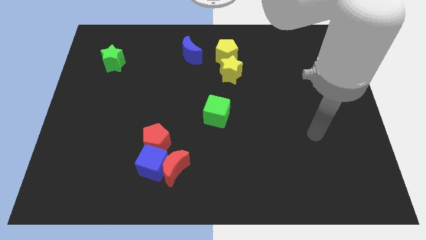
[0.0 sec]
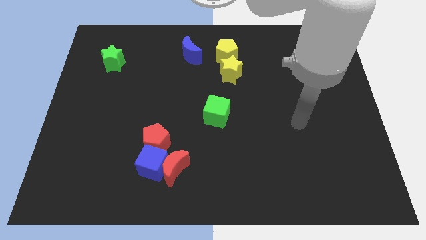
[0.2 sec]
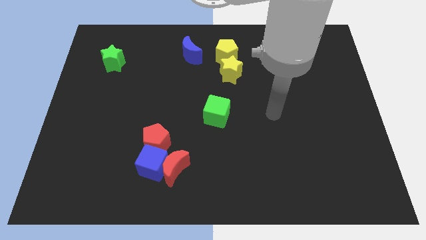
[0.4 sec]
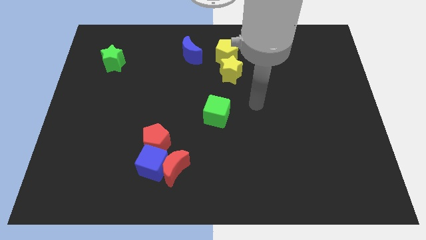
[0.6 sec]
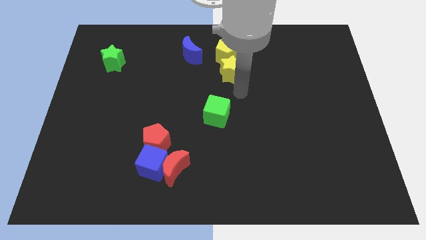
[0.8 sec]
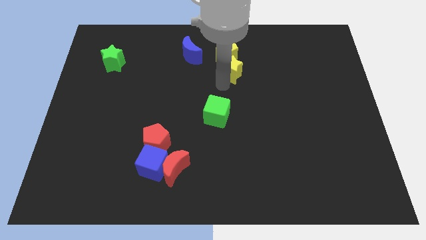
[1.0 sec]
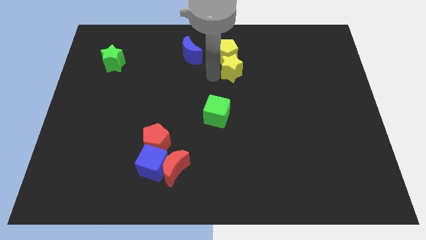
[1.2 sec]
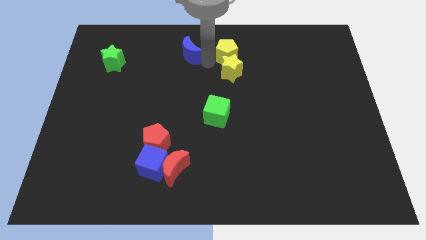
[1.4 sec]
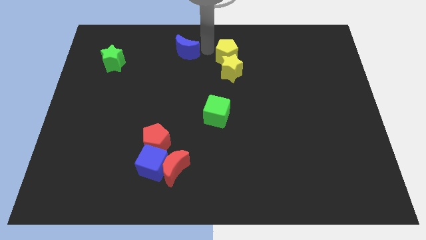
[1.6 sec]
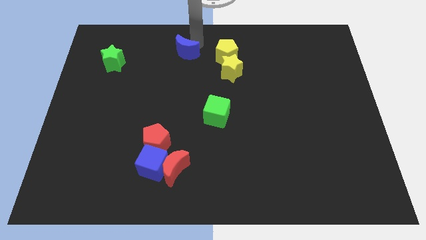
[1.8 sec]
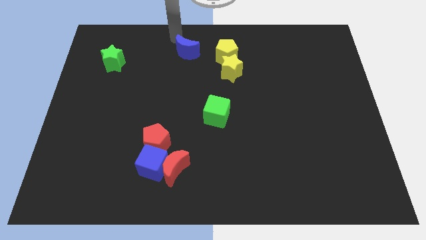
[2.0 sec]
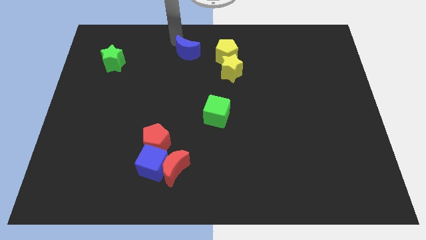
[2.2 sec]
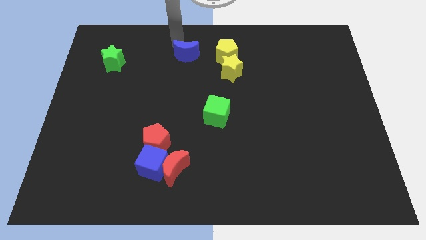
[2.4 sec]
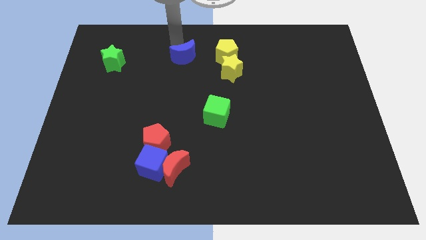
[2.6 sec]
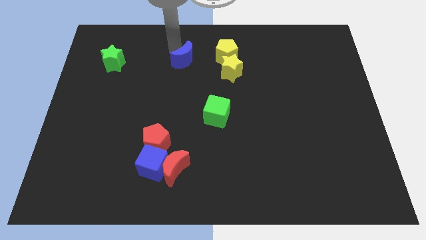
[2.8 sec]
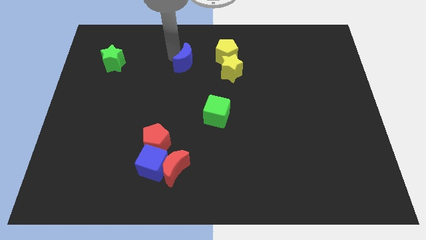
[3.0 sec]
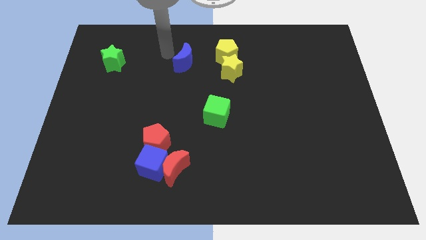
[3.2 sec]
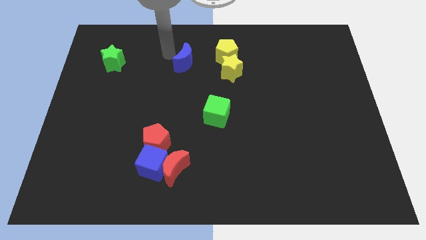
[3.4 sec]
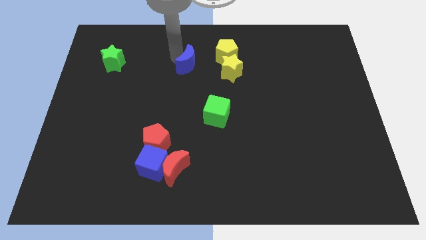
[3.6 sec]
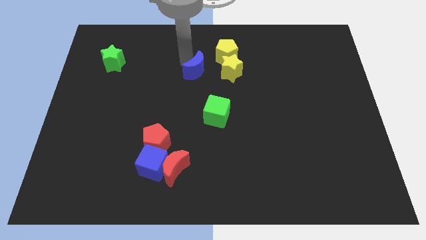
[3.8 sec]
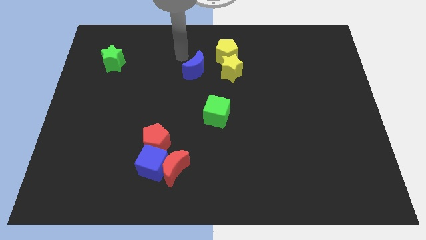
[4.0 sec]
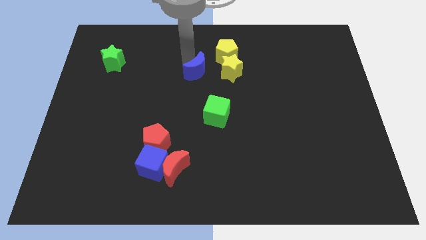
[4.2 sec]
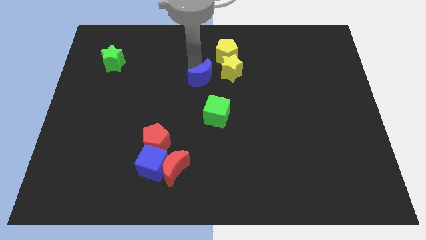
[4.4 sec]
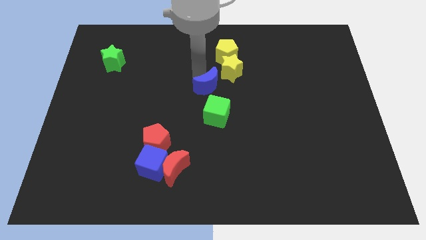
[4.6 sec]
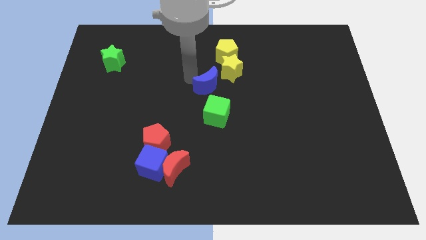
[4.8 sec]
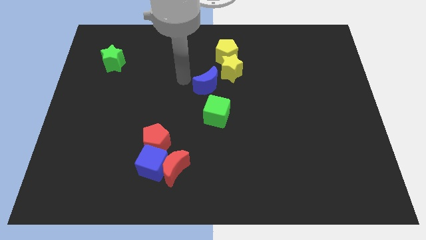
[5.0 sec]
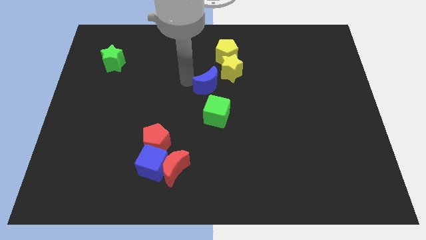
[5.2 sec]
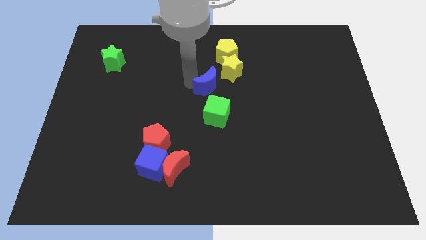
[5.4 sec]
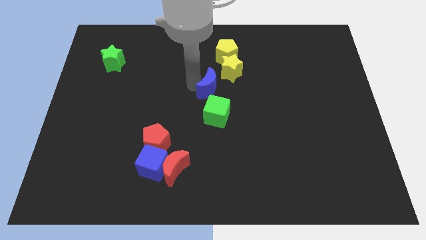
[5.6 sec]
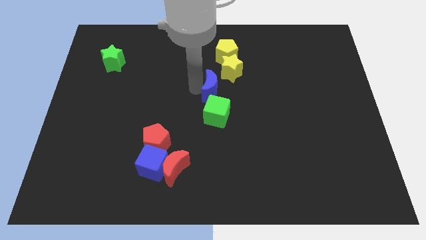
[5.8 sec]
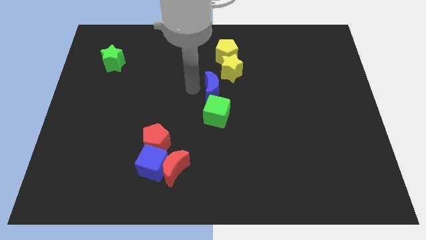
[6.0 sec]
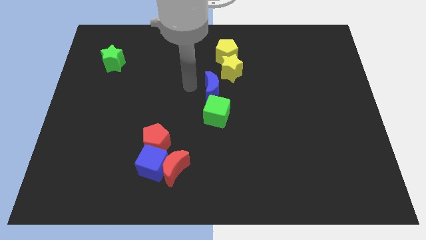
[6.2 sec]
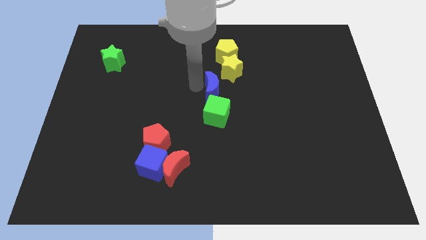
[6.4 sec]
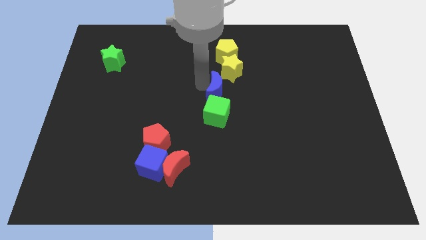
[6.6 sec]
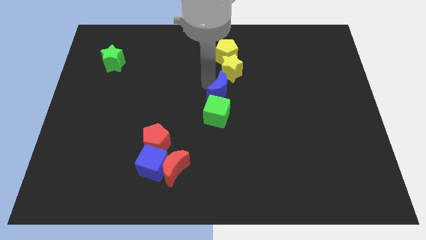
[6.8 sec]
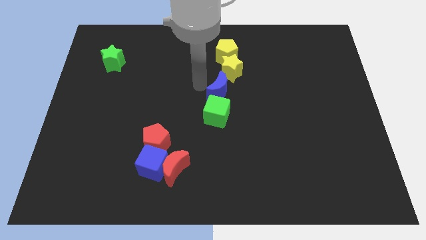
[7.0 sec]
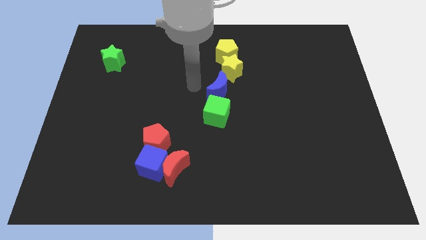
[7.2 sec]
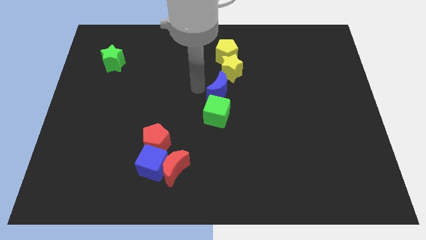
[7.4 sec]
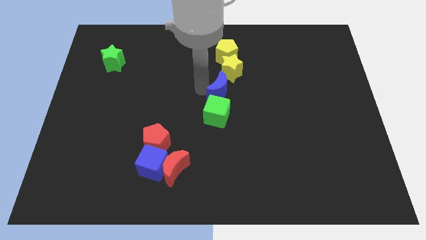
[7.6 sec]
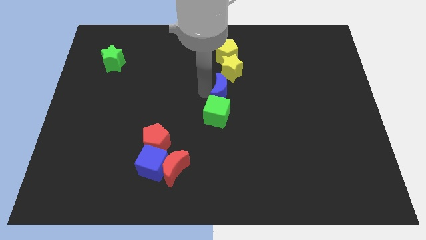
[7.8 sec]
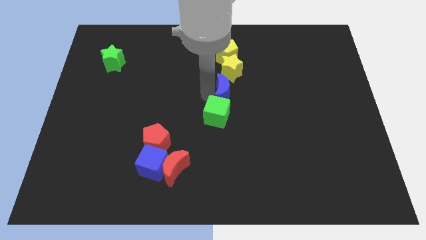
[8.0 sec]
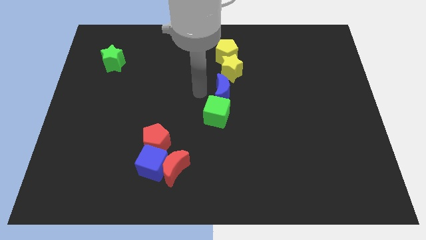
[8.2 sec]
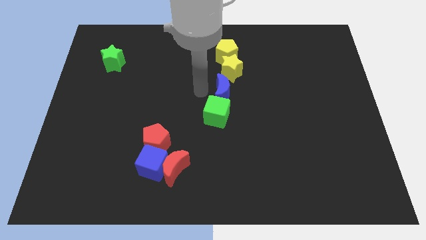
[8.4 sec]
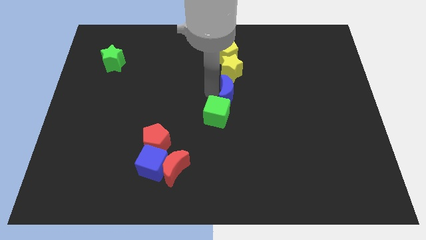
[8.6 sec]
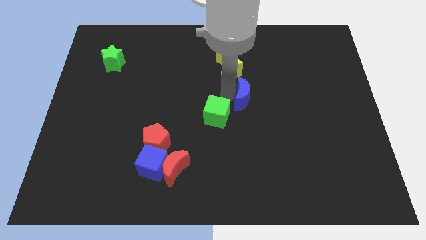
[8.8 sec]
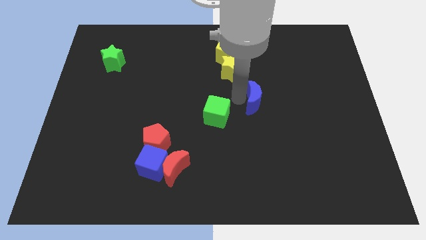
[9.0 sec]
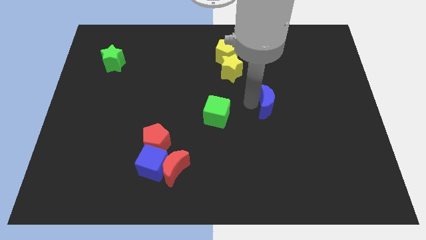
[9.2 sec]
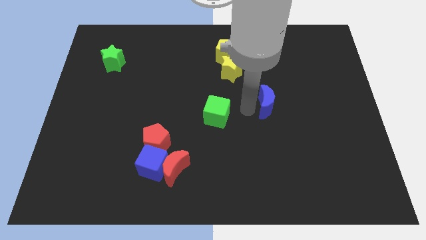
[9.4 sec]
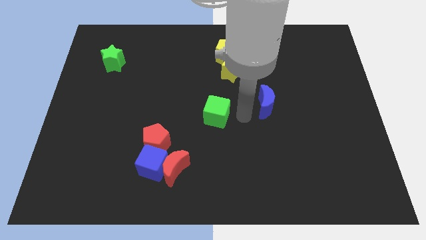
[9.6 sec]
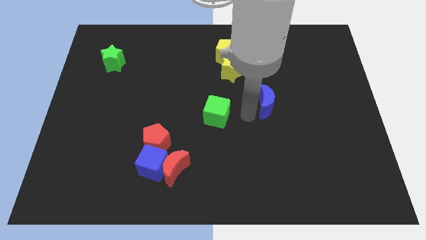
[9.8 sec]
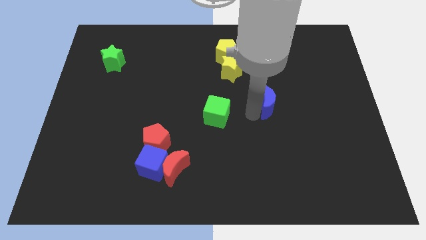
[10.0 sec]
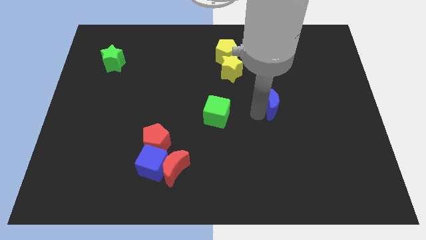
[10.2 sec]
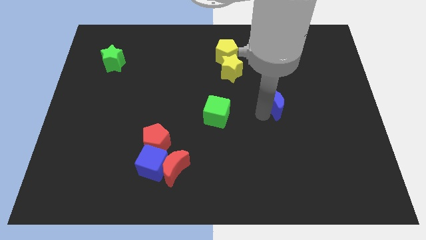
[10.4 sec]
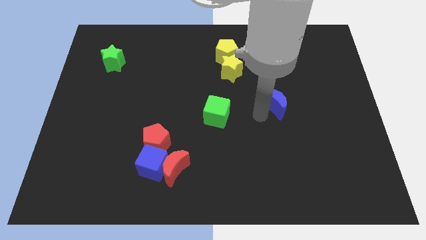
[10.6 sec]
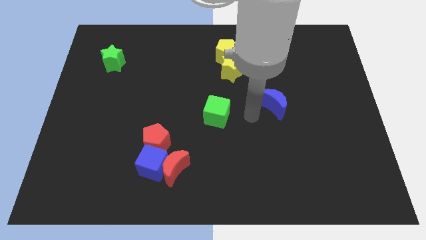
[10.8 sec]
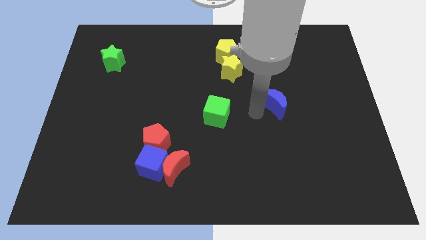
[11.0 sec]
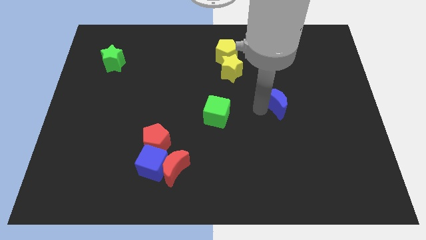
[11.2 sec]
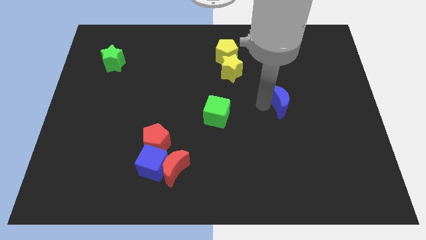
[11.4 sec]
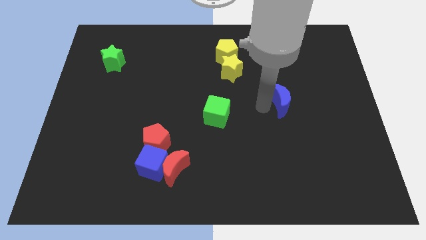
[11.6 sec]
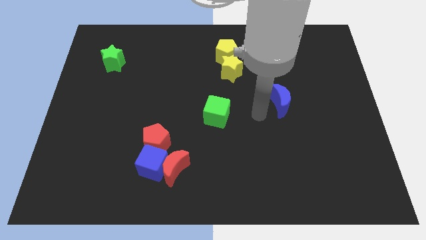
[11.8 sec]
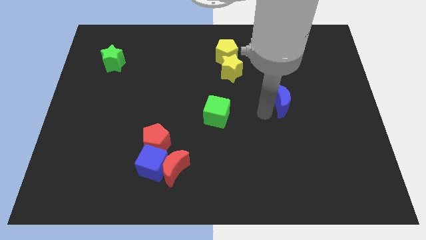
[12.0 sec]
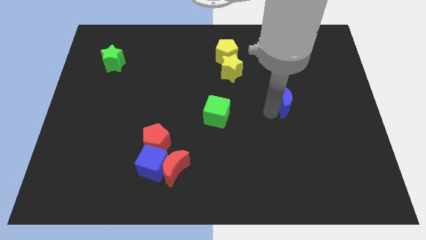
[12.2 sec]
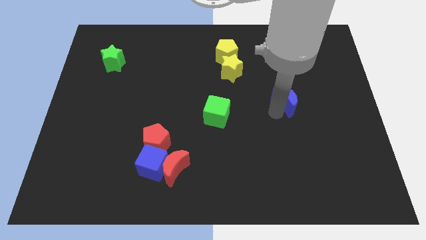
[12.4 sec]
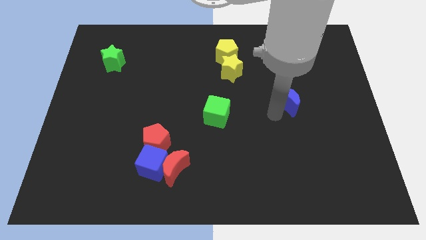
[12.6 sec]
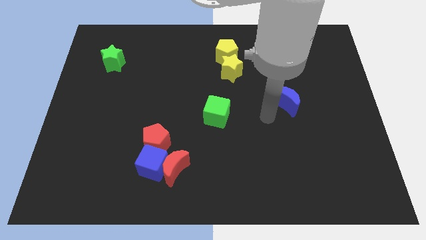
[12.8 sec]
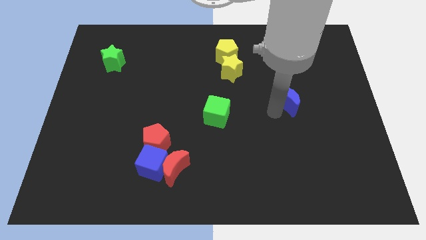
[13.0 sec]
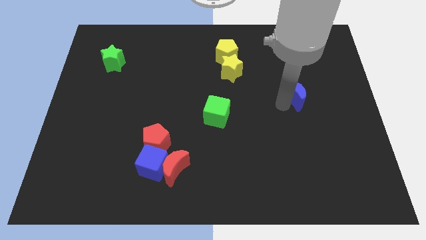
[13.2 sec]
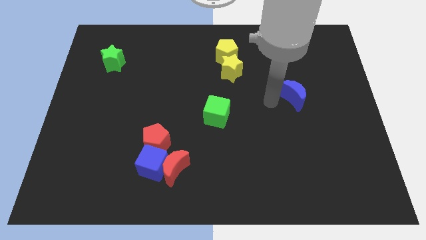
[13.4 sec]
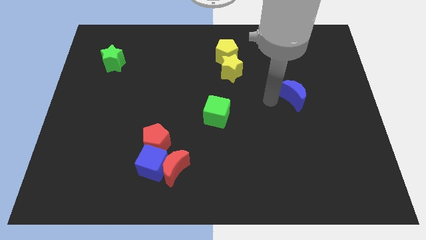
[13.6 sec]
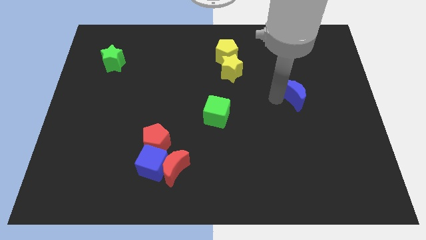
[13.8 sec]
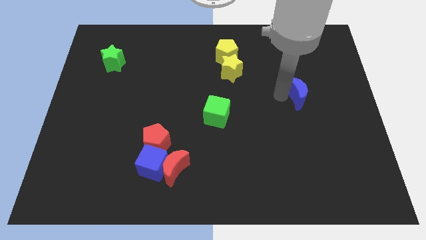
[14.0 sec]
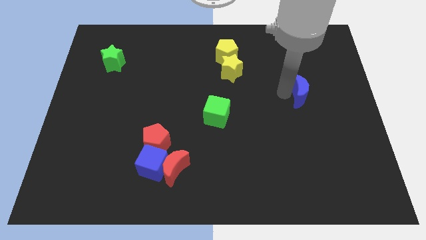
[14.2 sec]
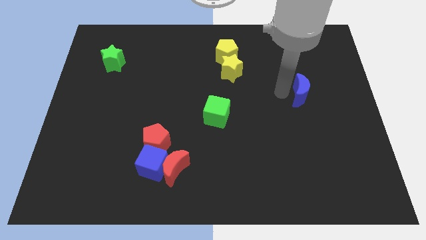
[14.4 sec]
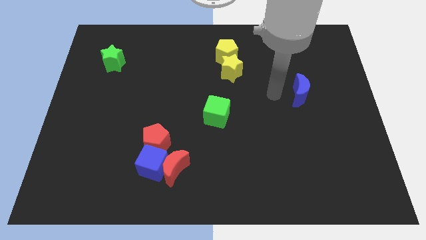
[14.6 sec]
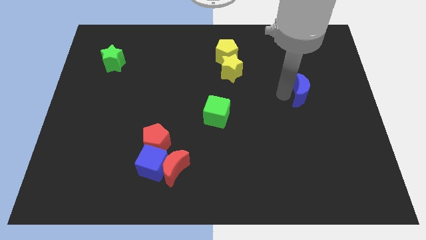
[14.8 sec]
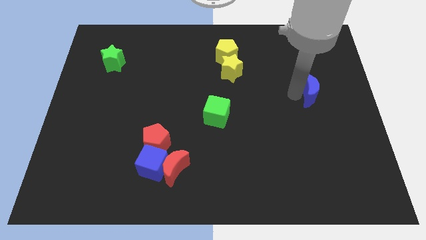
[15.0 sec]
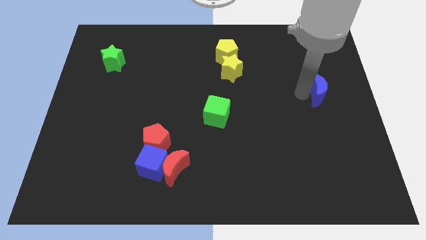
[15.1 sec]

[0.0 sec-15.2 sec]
put the blue moon to the right side
